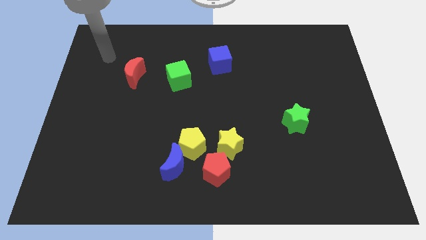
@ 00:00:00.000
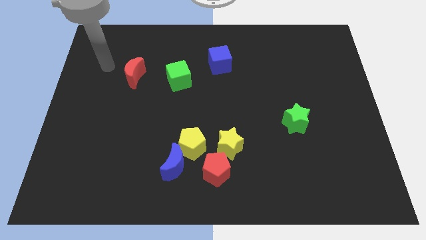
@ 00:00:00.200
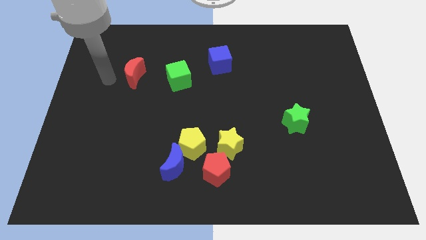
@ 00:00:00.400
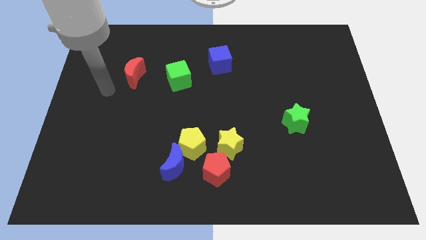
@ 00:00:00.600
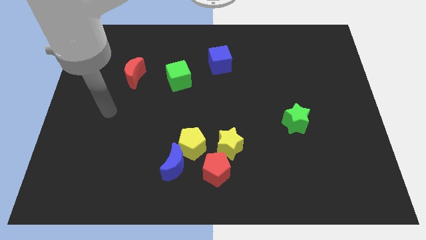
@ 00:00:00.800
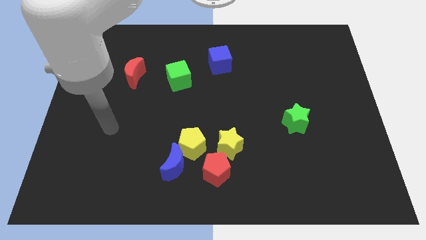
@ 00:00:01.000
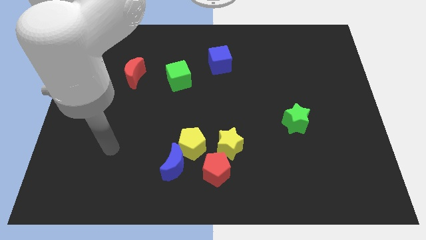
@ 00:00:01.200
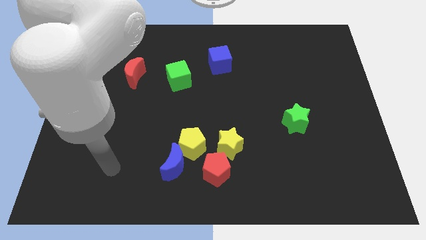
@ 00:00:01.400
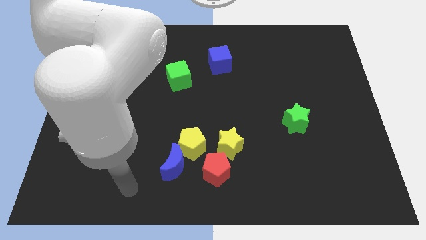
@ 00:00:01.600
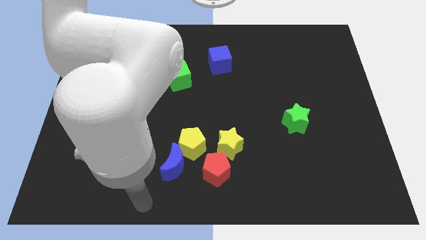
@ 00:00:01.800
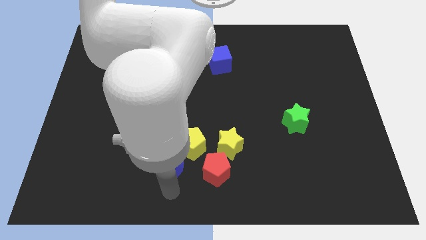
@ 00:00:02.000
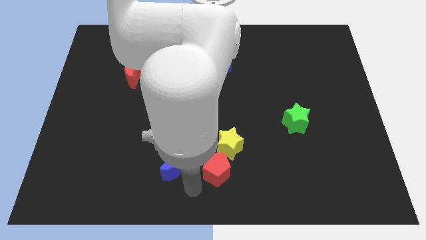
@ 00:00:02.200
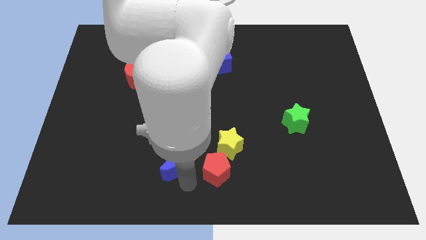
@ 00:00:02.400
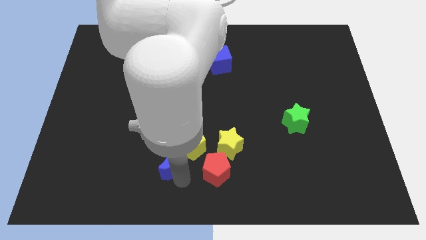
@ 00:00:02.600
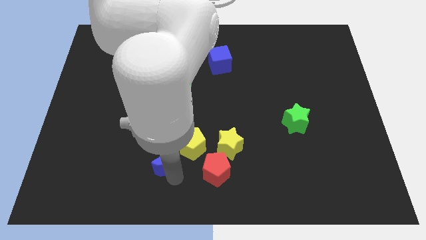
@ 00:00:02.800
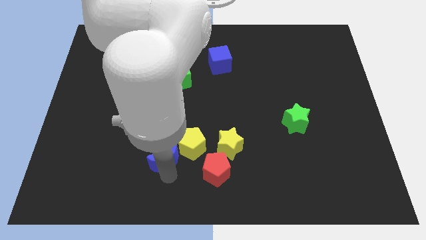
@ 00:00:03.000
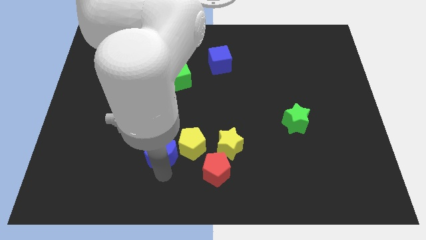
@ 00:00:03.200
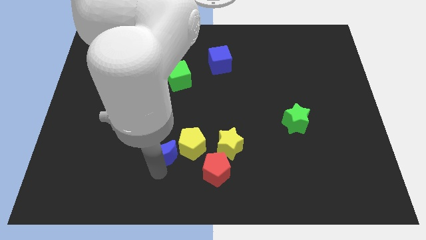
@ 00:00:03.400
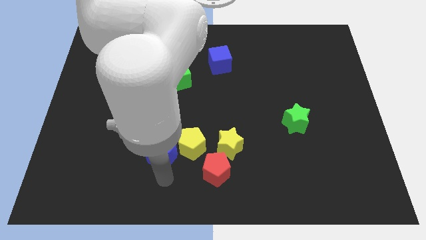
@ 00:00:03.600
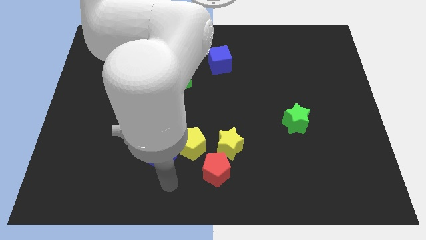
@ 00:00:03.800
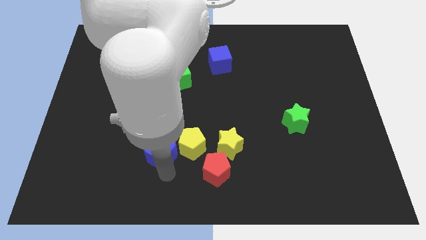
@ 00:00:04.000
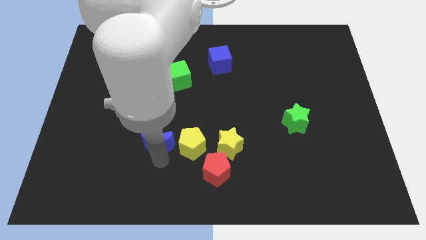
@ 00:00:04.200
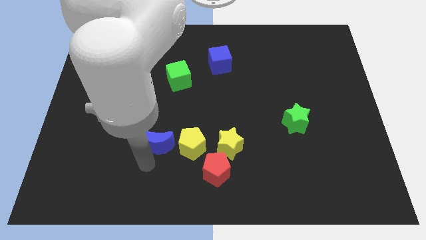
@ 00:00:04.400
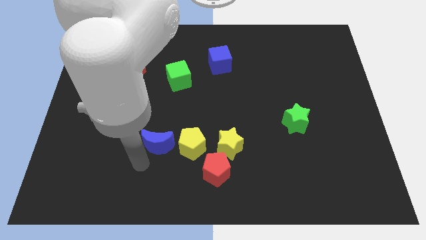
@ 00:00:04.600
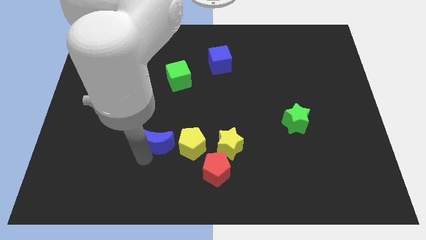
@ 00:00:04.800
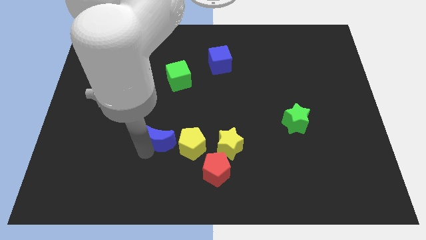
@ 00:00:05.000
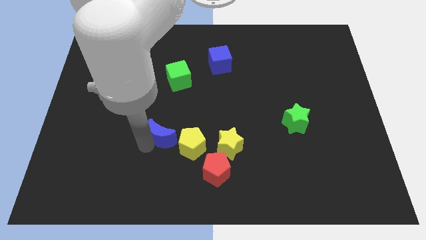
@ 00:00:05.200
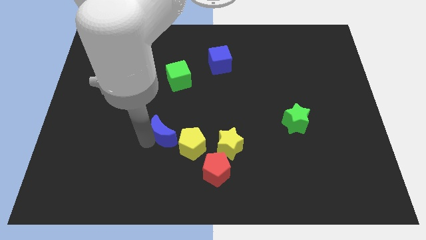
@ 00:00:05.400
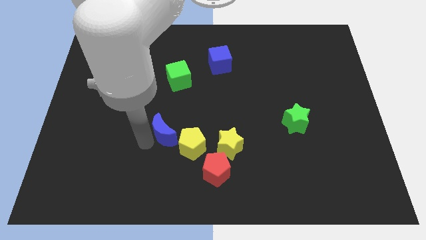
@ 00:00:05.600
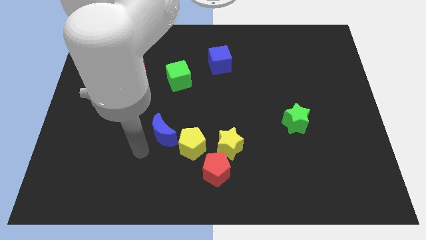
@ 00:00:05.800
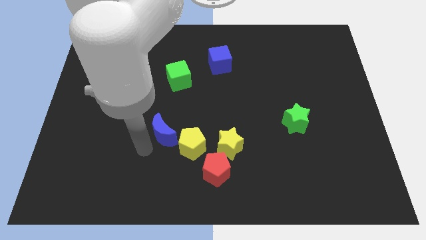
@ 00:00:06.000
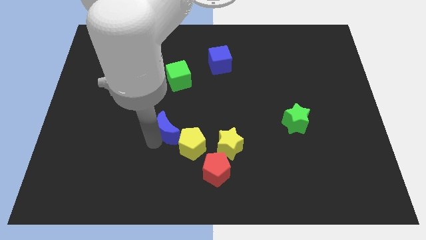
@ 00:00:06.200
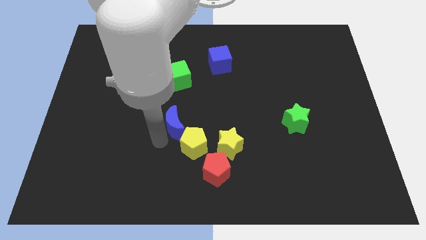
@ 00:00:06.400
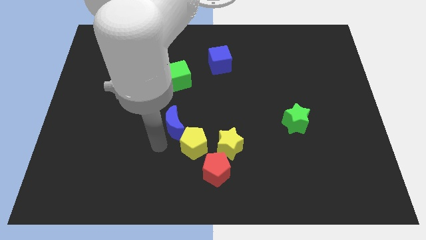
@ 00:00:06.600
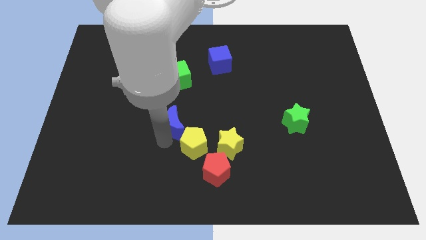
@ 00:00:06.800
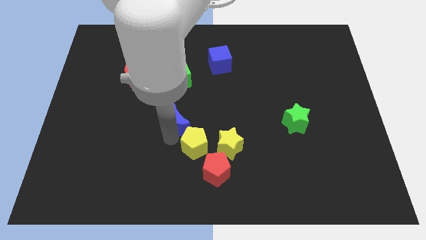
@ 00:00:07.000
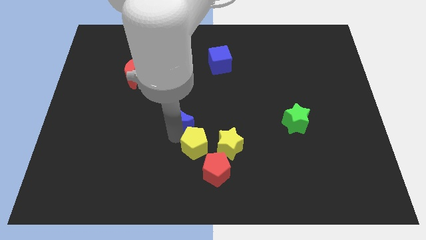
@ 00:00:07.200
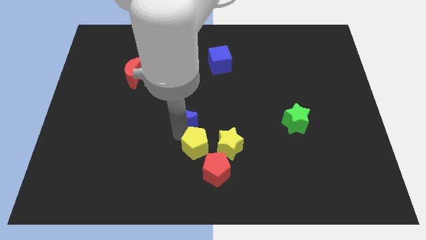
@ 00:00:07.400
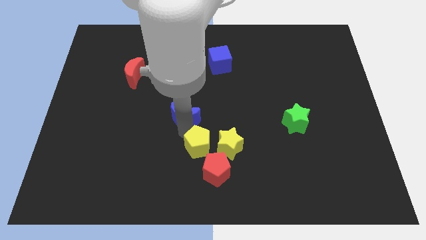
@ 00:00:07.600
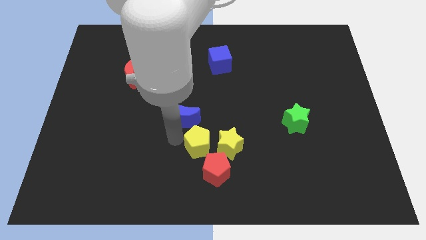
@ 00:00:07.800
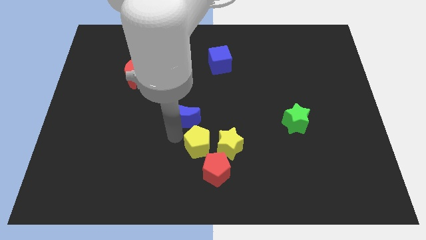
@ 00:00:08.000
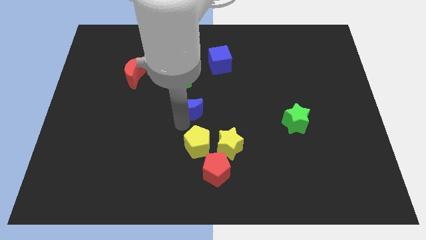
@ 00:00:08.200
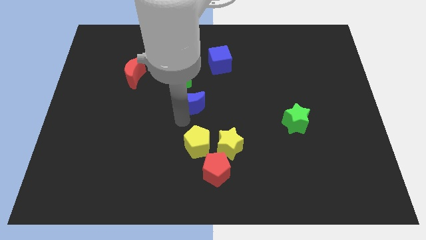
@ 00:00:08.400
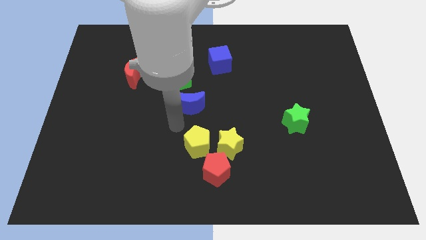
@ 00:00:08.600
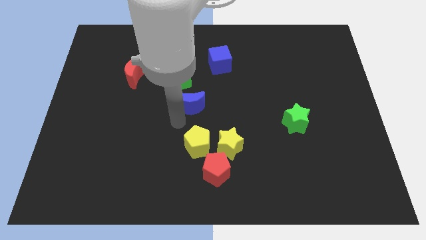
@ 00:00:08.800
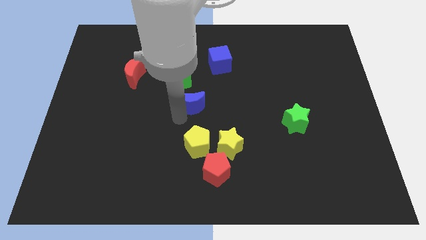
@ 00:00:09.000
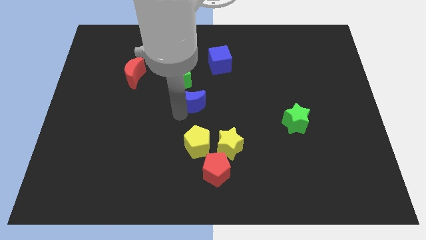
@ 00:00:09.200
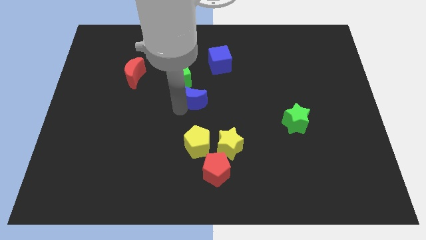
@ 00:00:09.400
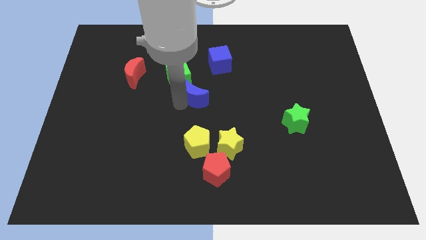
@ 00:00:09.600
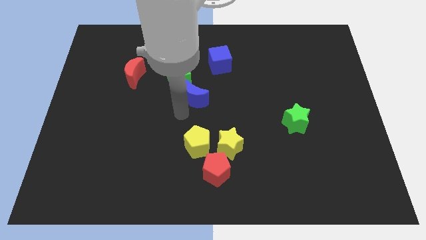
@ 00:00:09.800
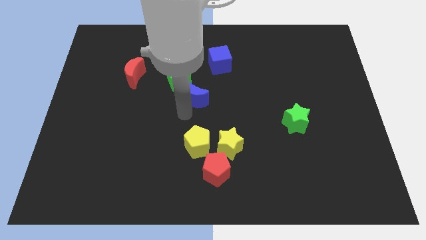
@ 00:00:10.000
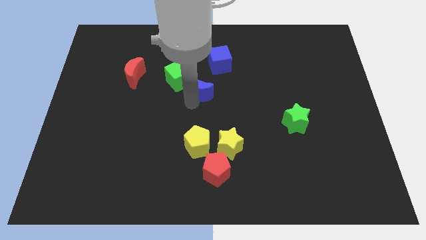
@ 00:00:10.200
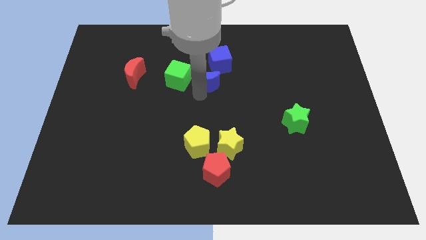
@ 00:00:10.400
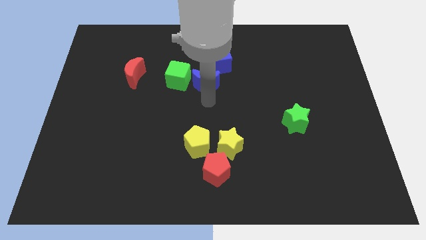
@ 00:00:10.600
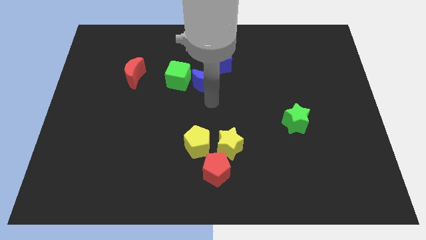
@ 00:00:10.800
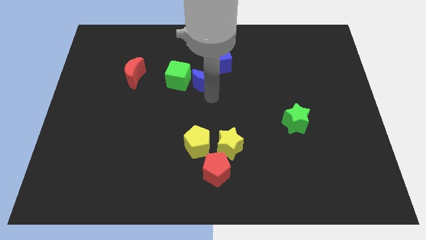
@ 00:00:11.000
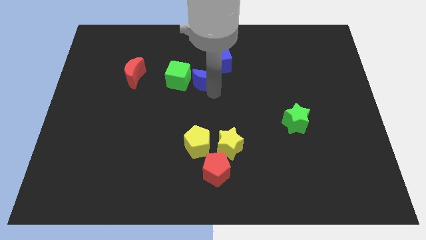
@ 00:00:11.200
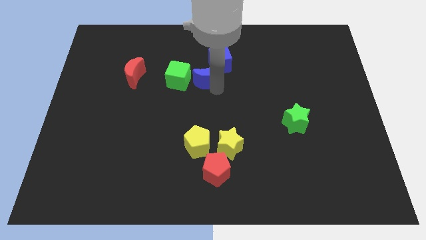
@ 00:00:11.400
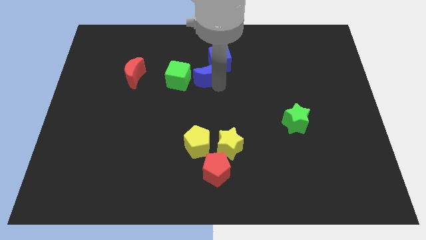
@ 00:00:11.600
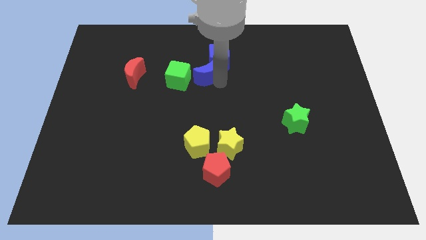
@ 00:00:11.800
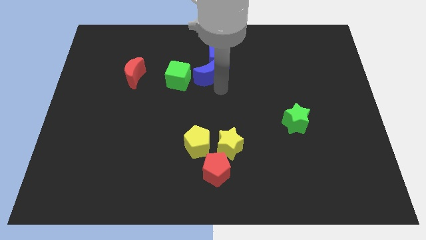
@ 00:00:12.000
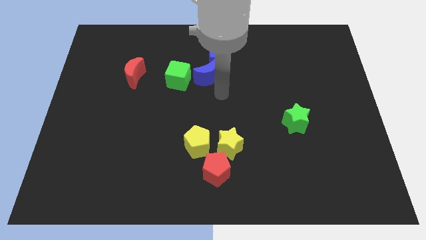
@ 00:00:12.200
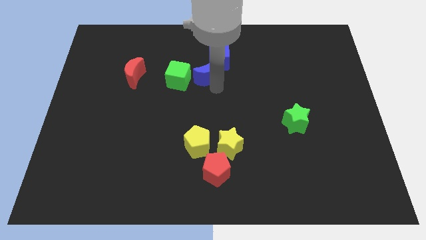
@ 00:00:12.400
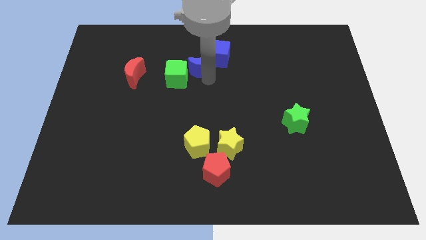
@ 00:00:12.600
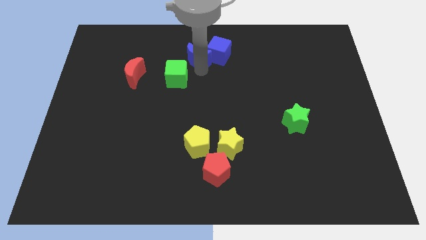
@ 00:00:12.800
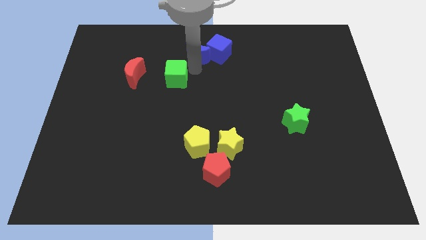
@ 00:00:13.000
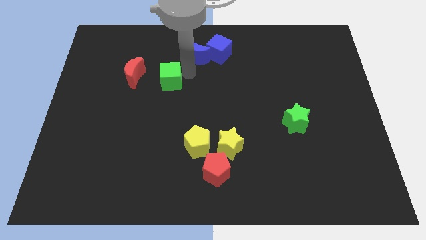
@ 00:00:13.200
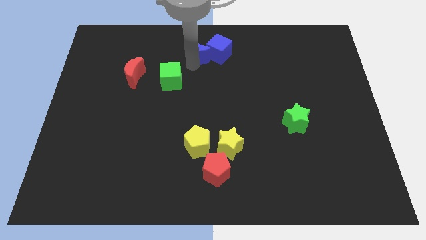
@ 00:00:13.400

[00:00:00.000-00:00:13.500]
move the blue moon to the top side

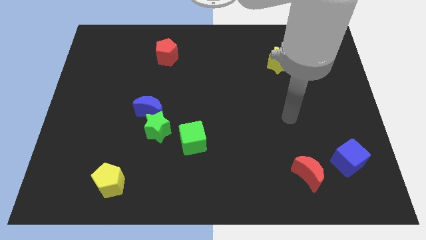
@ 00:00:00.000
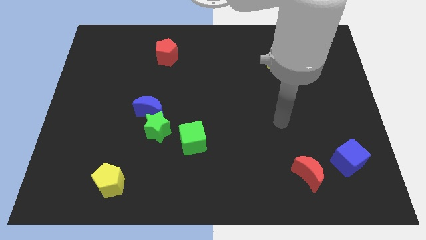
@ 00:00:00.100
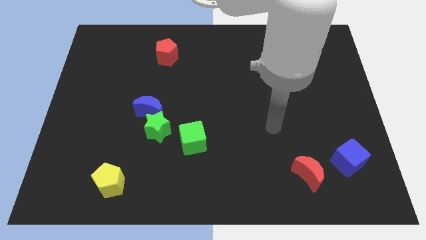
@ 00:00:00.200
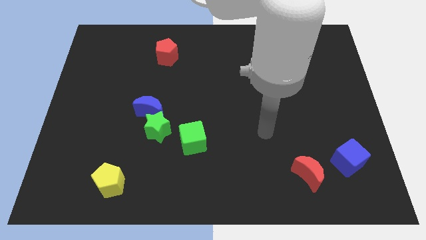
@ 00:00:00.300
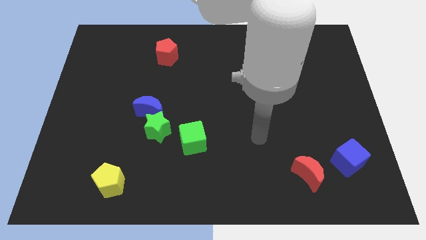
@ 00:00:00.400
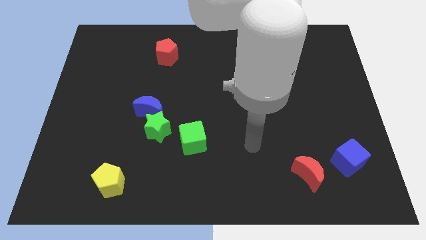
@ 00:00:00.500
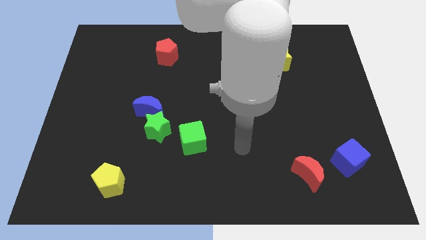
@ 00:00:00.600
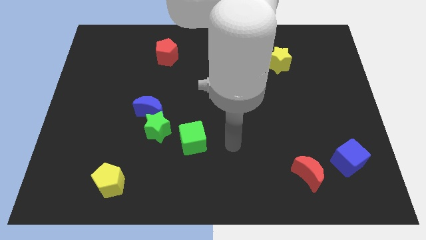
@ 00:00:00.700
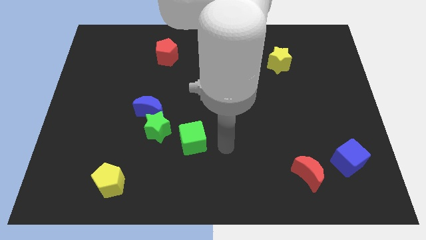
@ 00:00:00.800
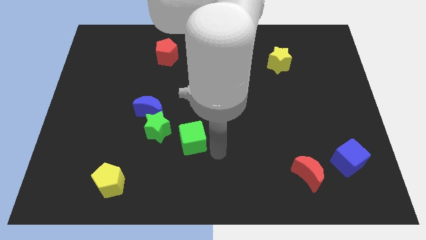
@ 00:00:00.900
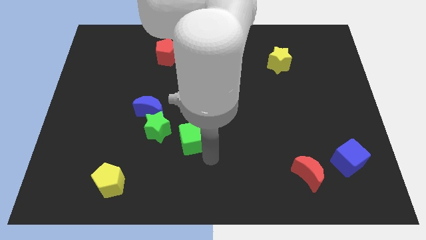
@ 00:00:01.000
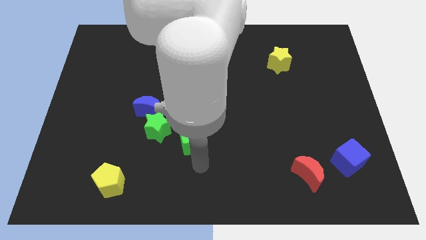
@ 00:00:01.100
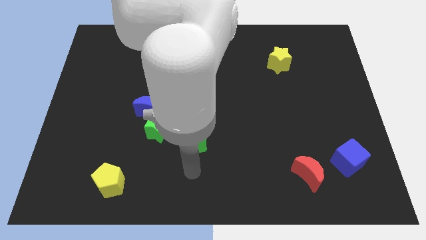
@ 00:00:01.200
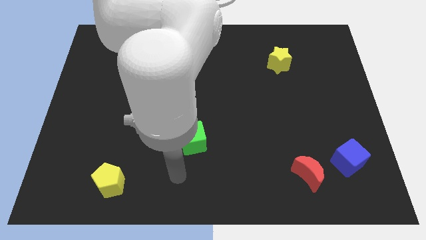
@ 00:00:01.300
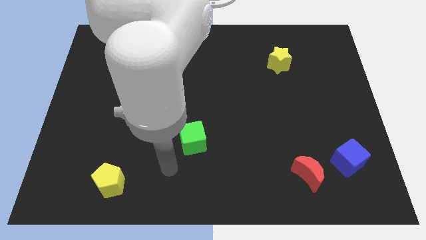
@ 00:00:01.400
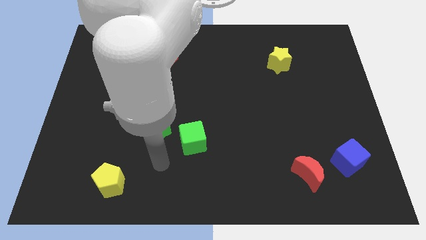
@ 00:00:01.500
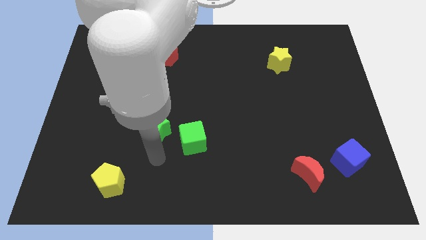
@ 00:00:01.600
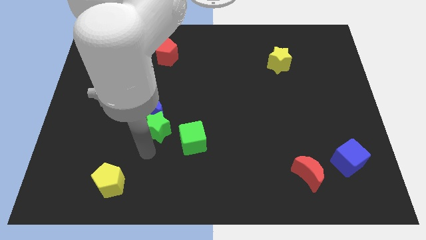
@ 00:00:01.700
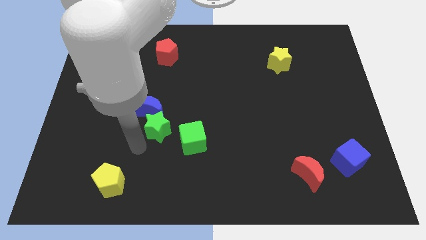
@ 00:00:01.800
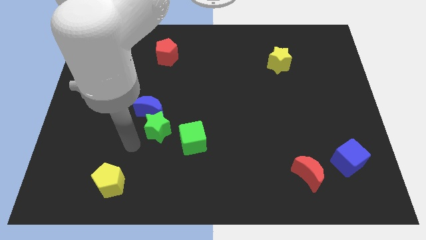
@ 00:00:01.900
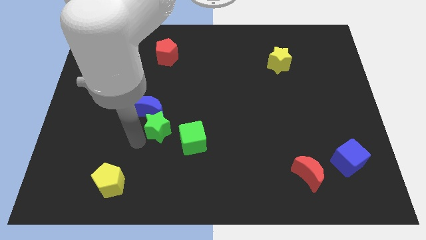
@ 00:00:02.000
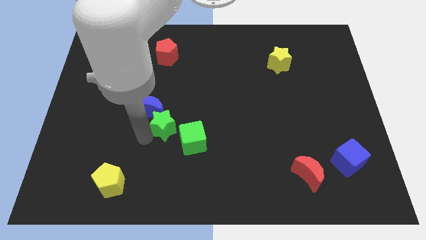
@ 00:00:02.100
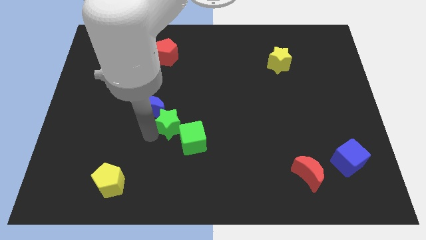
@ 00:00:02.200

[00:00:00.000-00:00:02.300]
put the green star to the center
